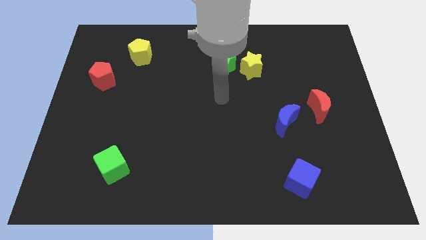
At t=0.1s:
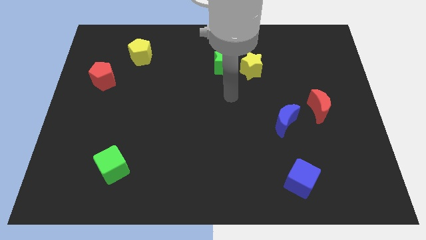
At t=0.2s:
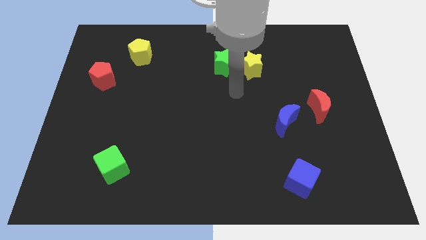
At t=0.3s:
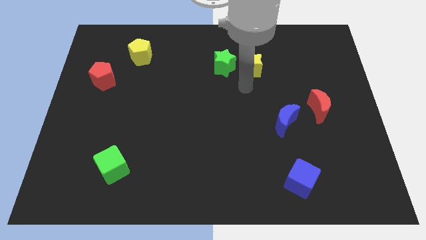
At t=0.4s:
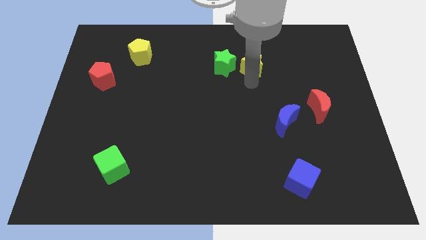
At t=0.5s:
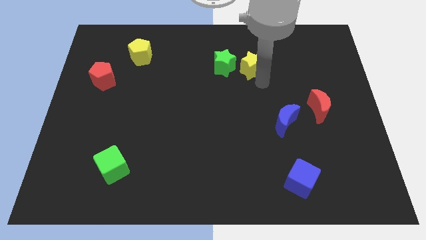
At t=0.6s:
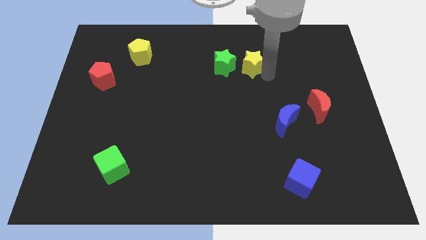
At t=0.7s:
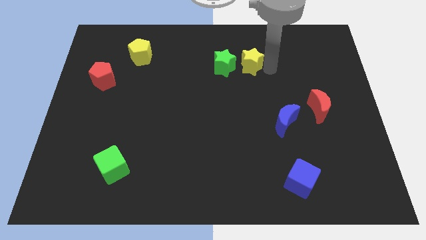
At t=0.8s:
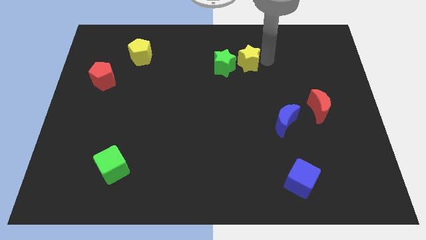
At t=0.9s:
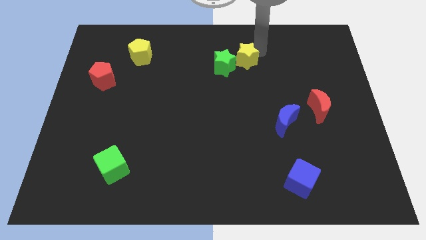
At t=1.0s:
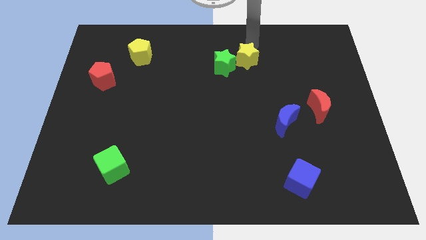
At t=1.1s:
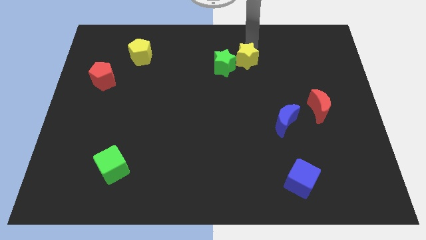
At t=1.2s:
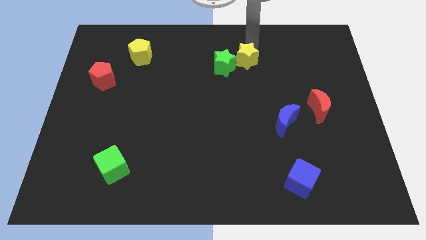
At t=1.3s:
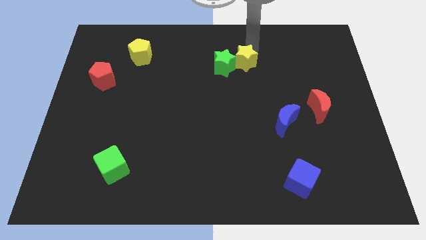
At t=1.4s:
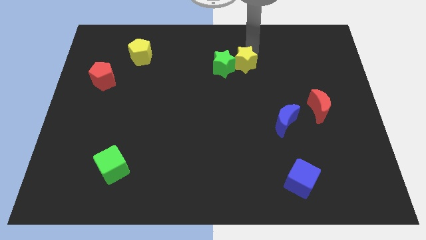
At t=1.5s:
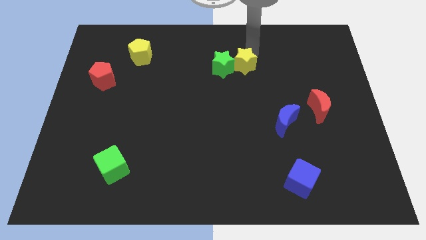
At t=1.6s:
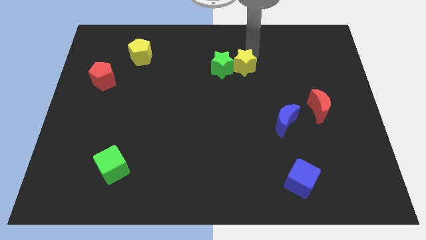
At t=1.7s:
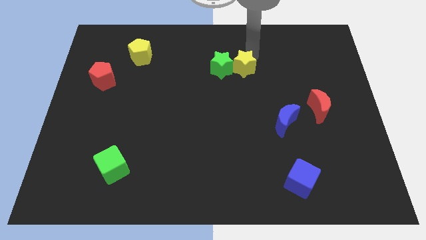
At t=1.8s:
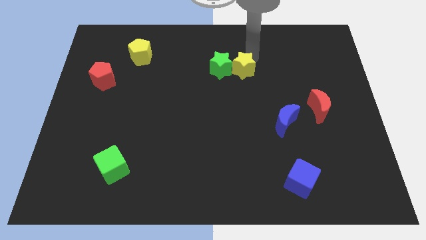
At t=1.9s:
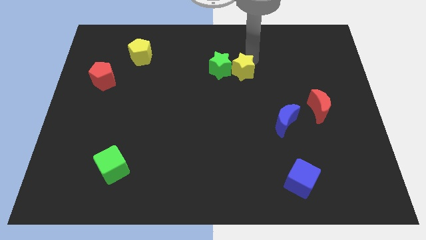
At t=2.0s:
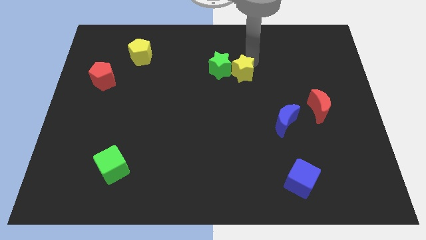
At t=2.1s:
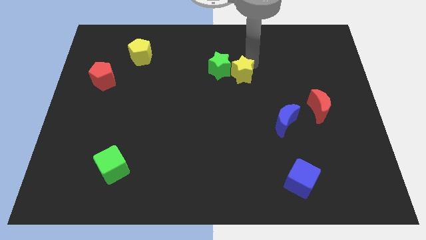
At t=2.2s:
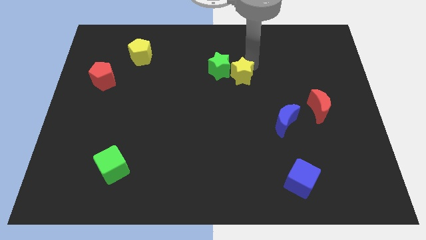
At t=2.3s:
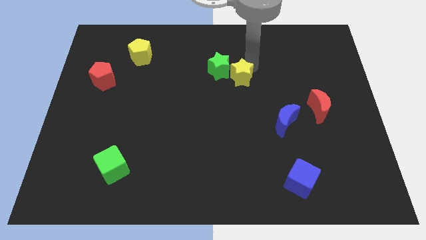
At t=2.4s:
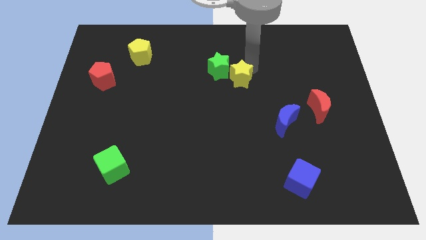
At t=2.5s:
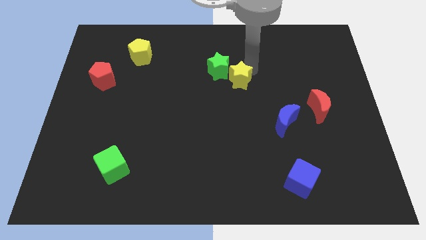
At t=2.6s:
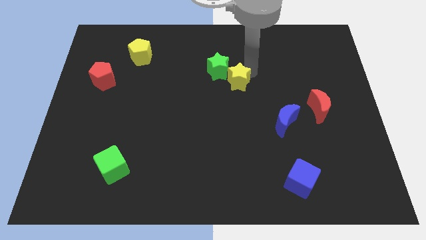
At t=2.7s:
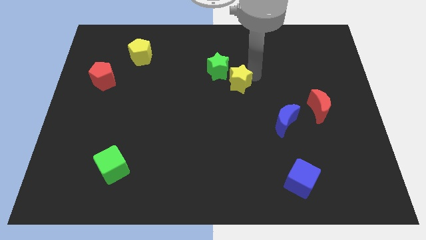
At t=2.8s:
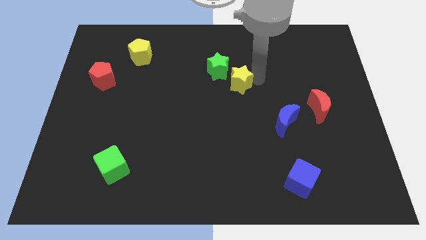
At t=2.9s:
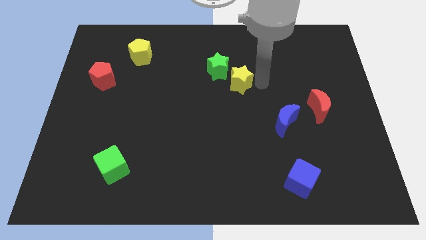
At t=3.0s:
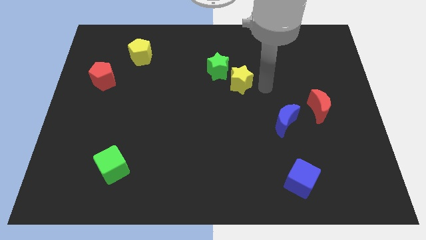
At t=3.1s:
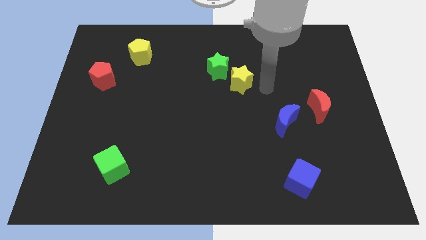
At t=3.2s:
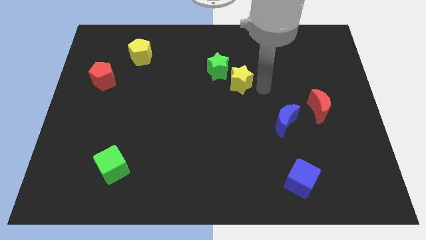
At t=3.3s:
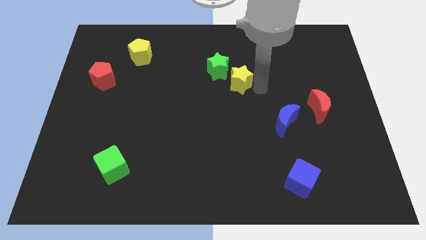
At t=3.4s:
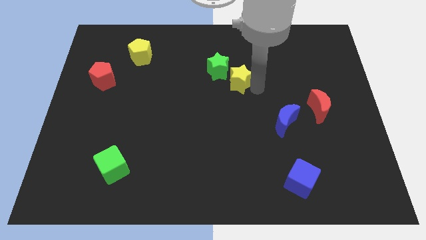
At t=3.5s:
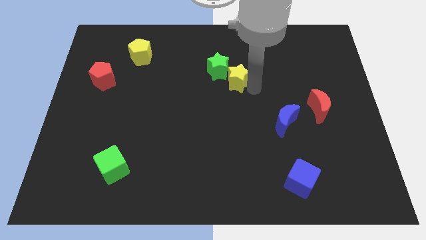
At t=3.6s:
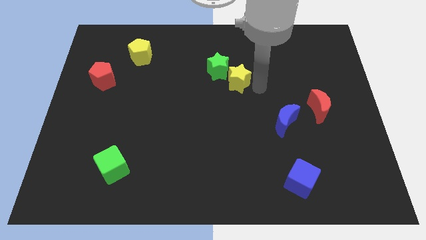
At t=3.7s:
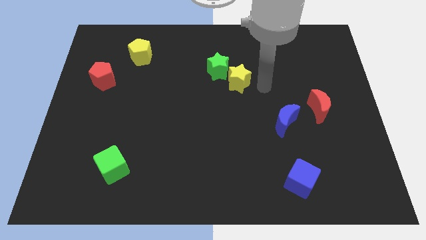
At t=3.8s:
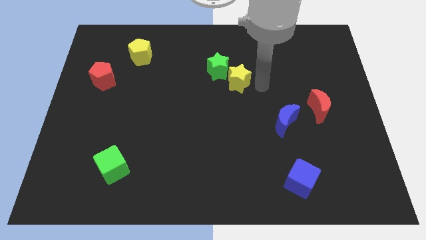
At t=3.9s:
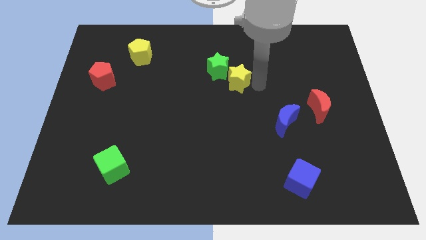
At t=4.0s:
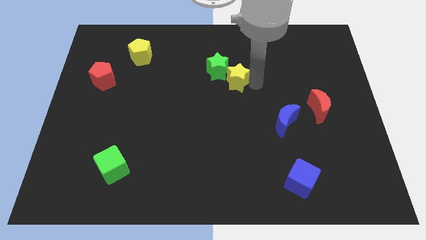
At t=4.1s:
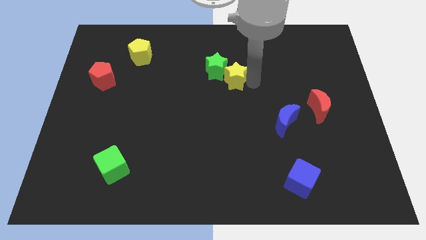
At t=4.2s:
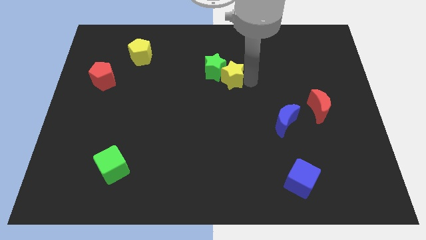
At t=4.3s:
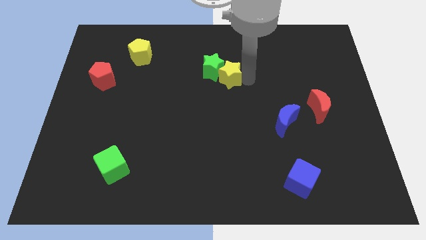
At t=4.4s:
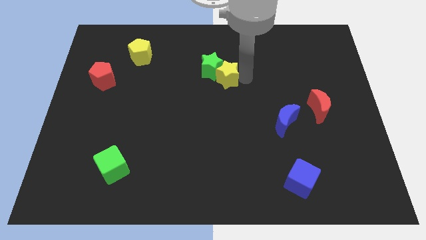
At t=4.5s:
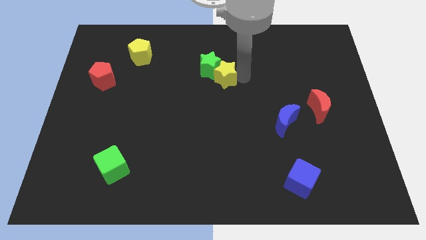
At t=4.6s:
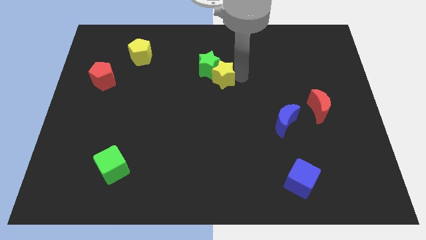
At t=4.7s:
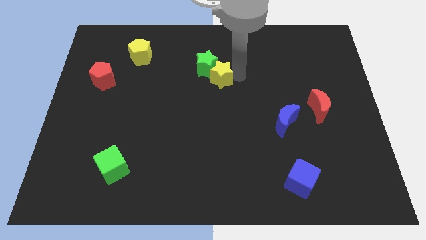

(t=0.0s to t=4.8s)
slide the yellow star to the left somewhat

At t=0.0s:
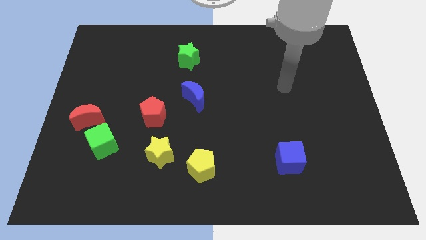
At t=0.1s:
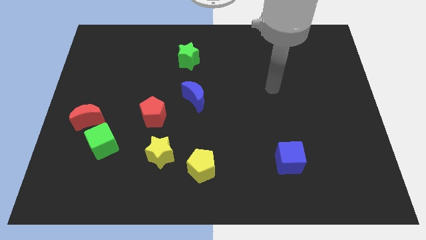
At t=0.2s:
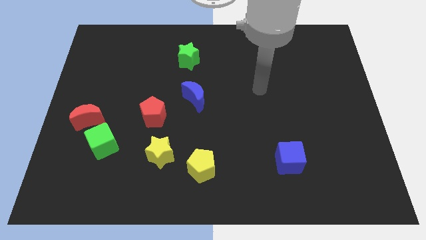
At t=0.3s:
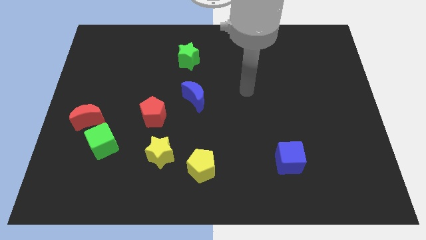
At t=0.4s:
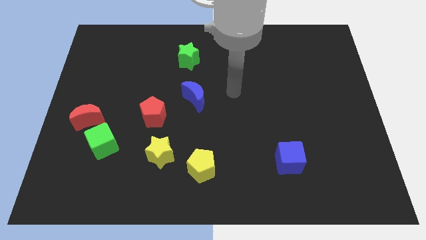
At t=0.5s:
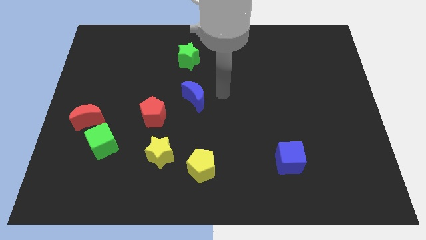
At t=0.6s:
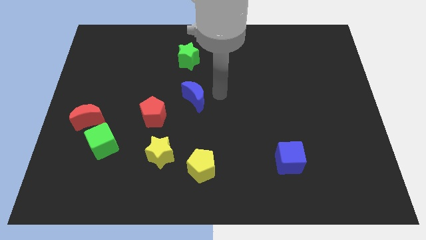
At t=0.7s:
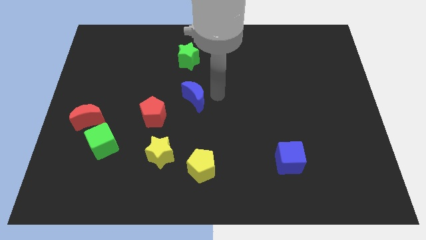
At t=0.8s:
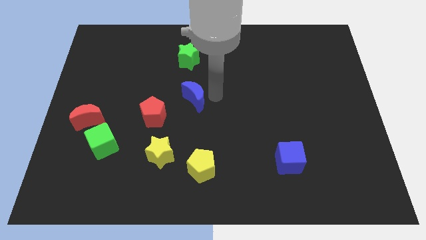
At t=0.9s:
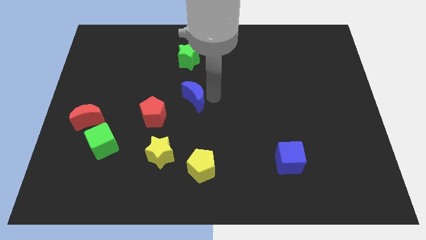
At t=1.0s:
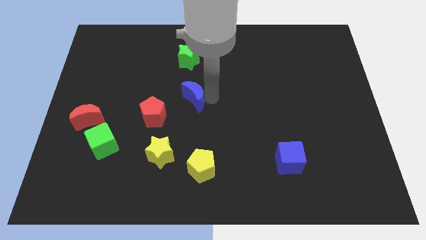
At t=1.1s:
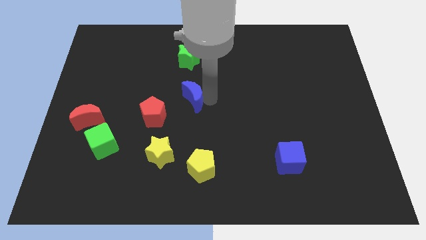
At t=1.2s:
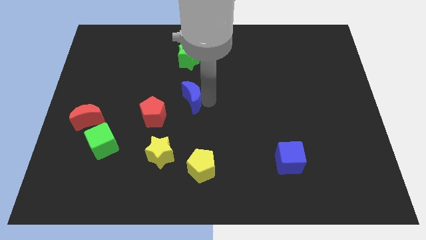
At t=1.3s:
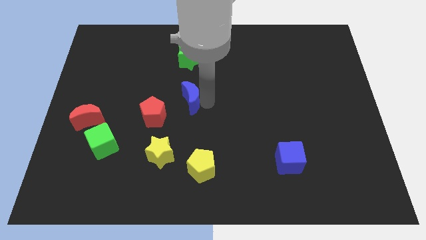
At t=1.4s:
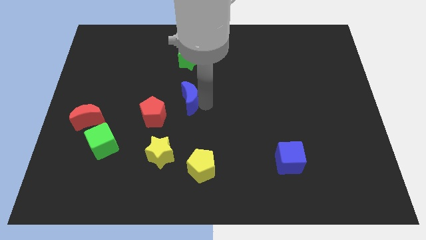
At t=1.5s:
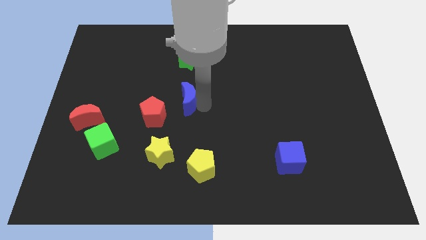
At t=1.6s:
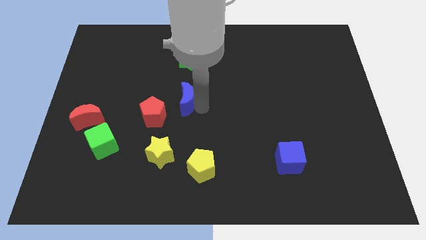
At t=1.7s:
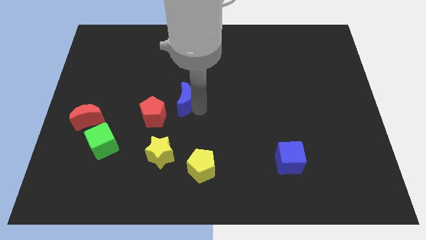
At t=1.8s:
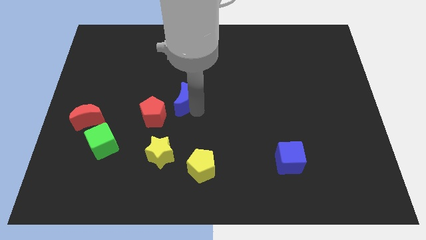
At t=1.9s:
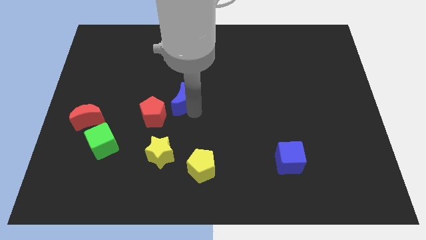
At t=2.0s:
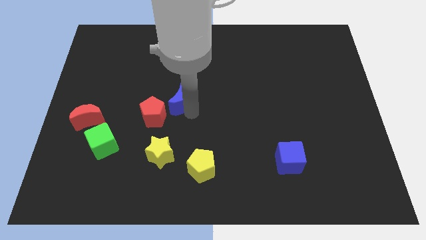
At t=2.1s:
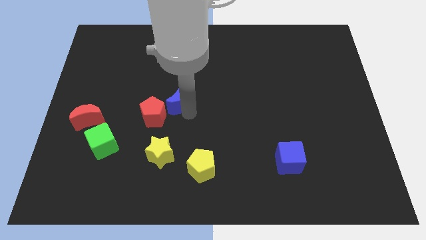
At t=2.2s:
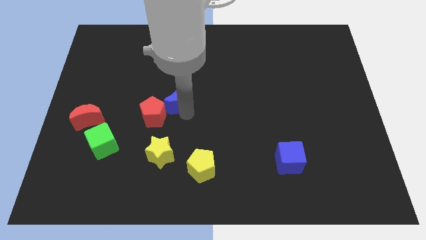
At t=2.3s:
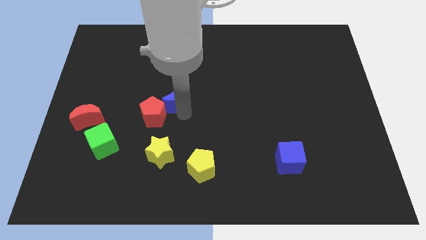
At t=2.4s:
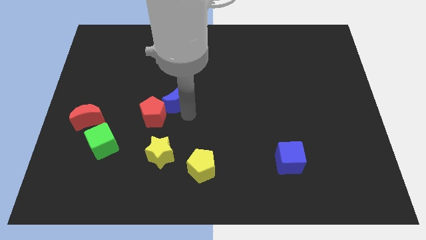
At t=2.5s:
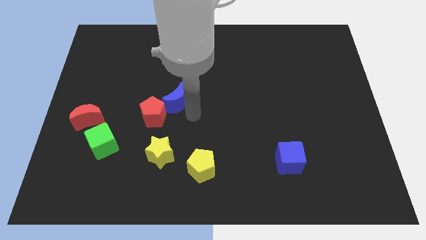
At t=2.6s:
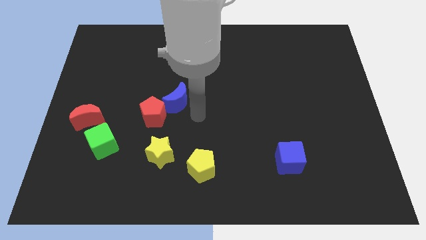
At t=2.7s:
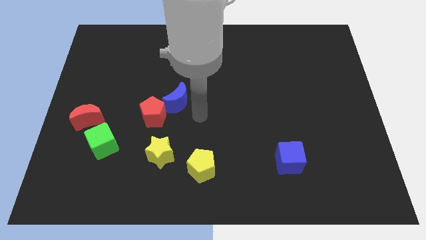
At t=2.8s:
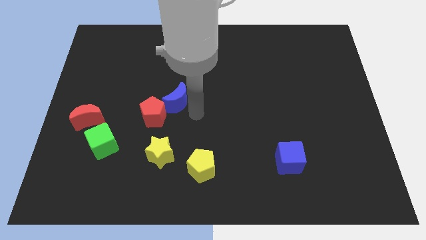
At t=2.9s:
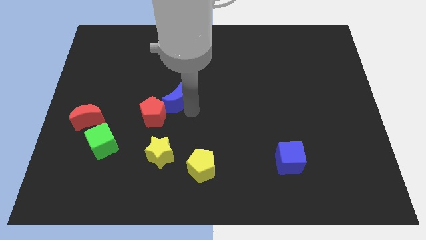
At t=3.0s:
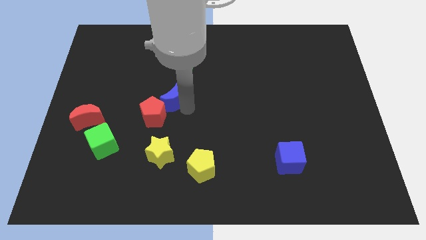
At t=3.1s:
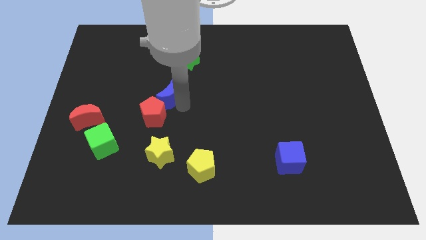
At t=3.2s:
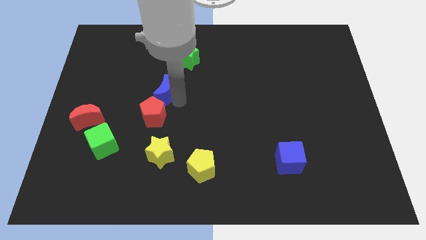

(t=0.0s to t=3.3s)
slightly move the blue moon left
